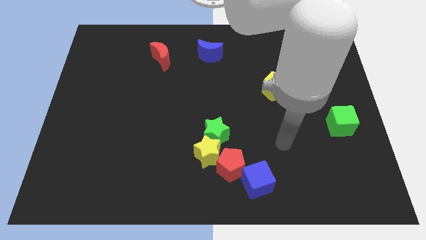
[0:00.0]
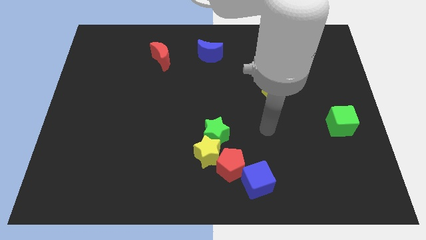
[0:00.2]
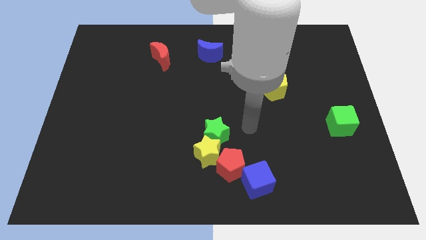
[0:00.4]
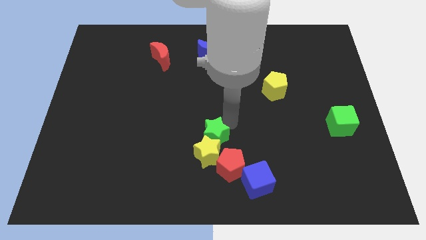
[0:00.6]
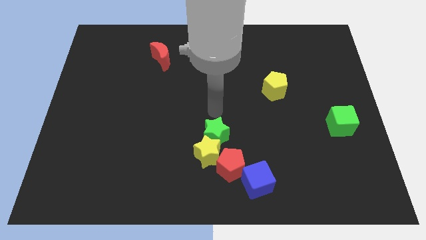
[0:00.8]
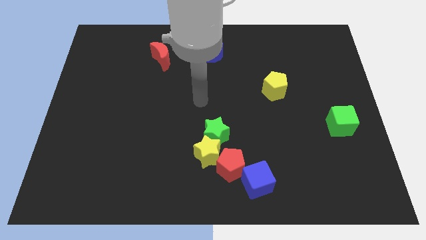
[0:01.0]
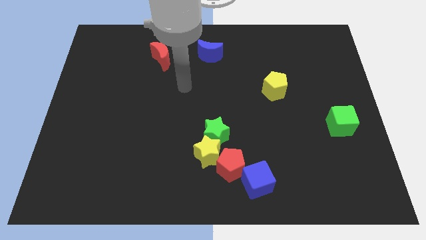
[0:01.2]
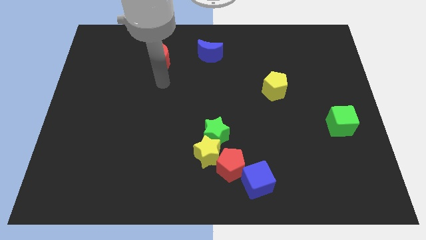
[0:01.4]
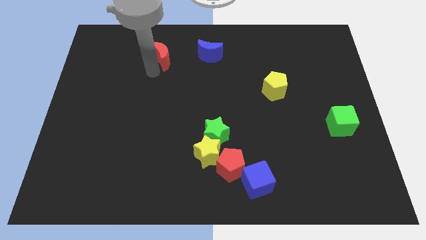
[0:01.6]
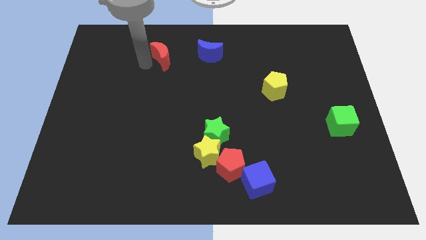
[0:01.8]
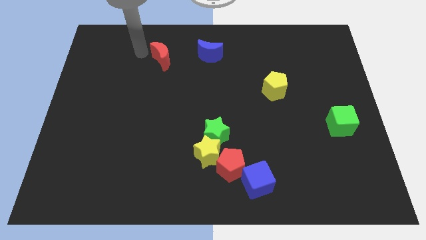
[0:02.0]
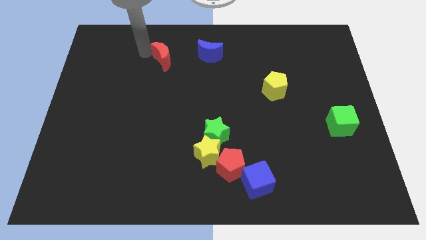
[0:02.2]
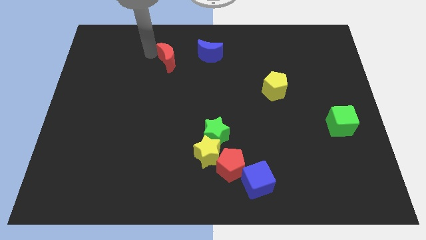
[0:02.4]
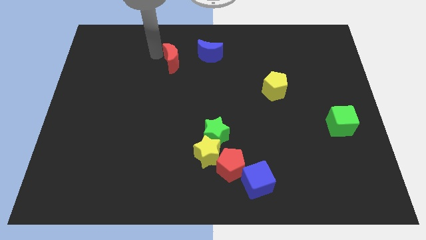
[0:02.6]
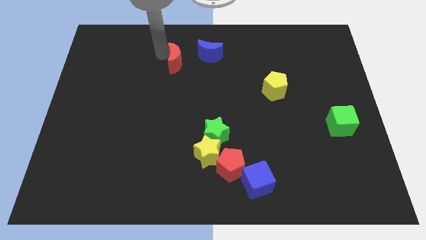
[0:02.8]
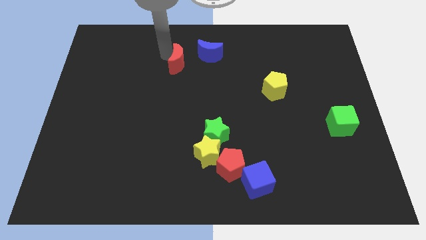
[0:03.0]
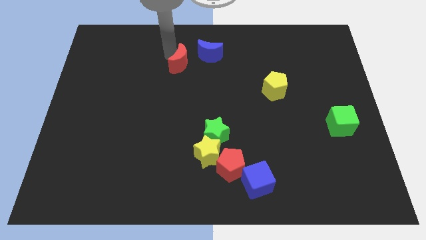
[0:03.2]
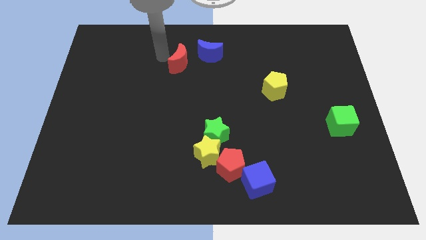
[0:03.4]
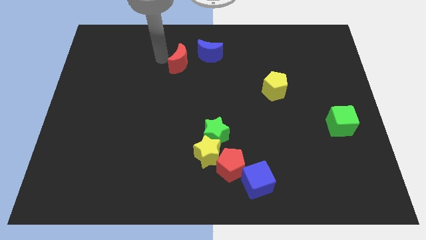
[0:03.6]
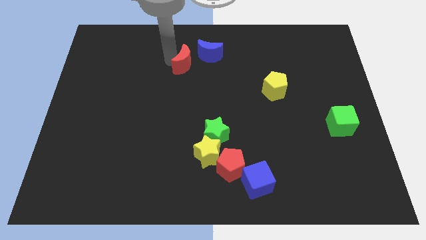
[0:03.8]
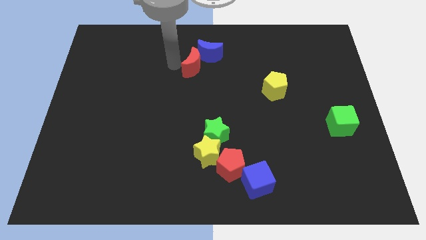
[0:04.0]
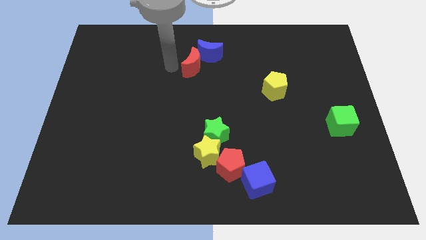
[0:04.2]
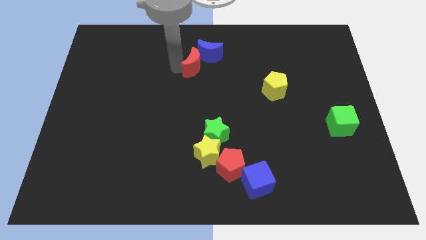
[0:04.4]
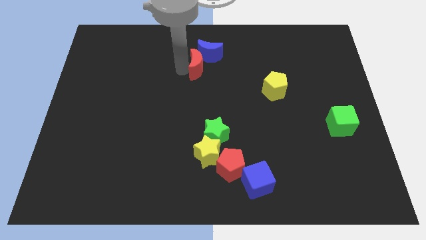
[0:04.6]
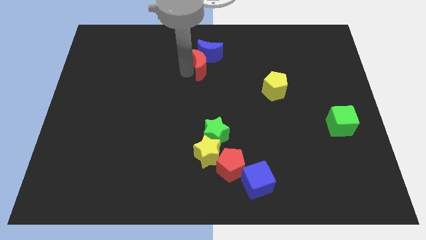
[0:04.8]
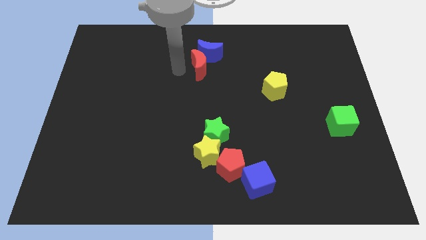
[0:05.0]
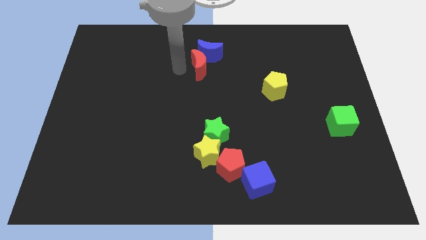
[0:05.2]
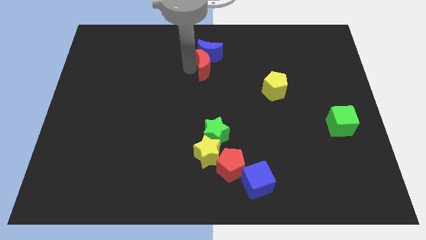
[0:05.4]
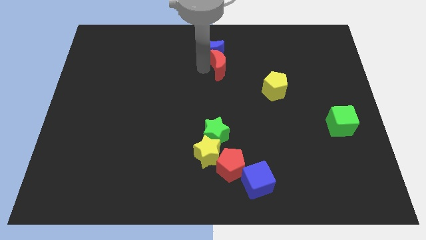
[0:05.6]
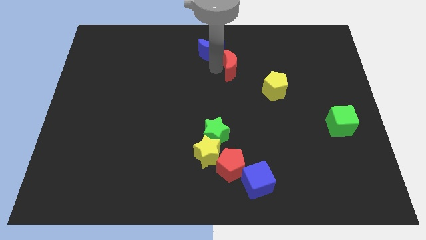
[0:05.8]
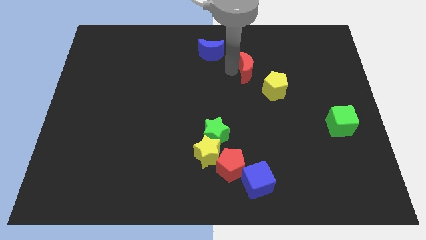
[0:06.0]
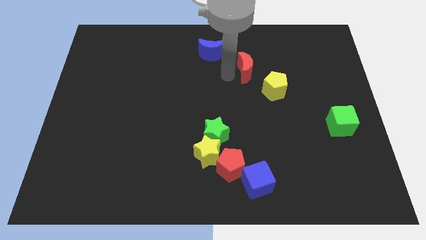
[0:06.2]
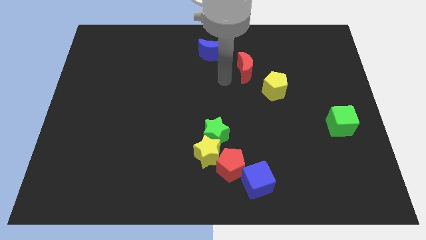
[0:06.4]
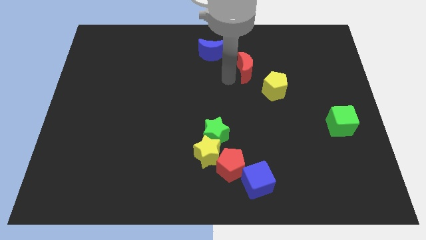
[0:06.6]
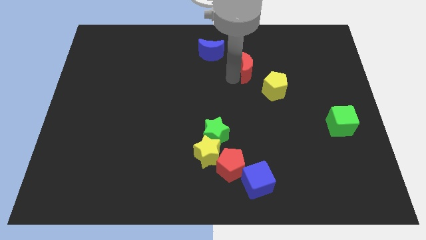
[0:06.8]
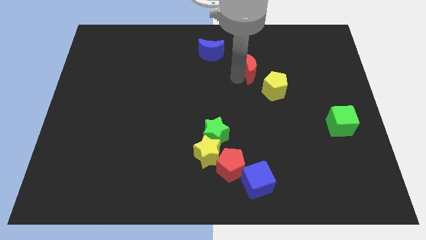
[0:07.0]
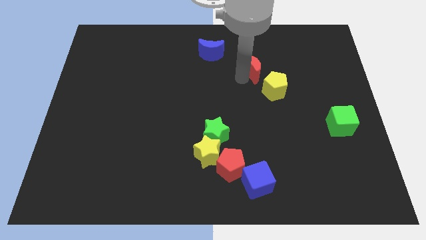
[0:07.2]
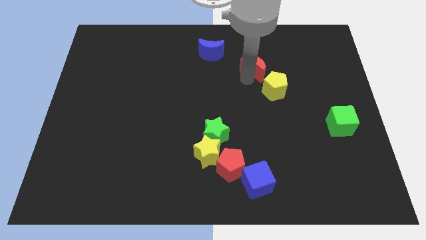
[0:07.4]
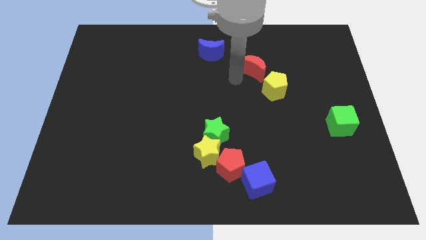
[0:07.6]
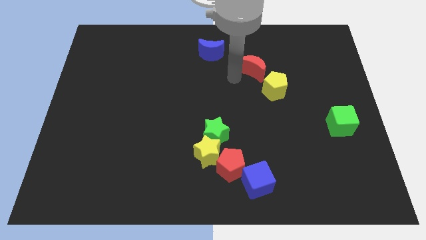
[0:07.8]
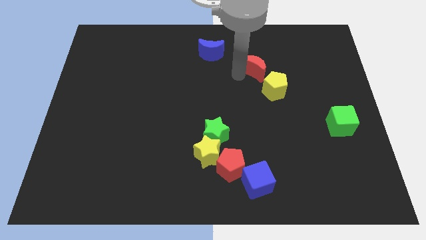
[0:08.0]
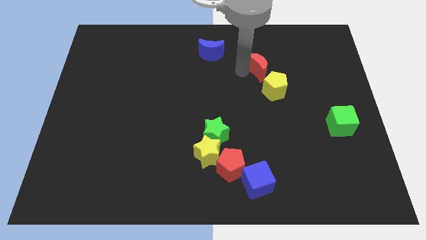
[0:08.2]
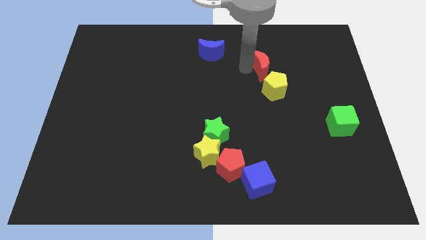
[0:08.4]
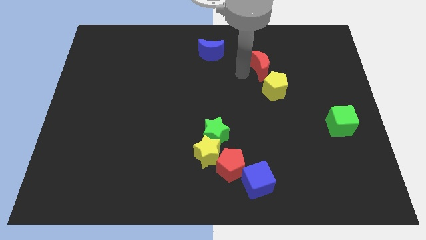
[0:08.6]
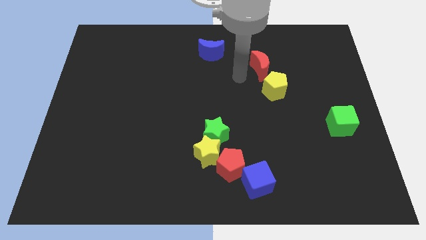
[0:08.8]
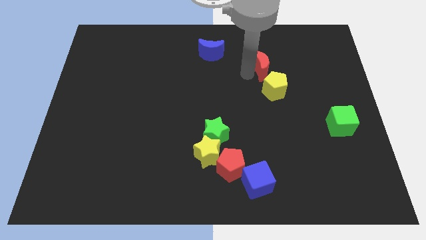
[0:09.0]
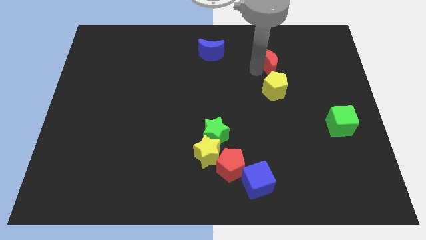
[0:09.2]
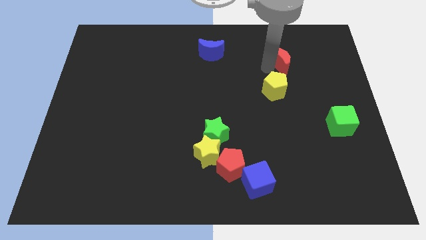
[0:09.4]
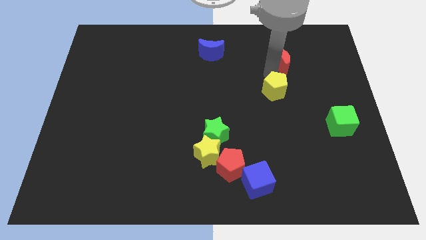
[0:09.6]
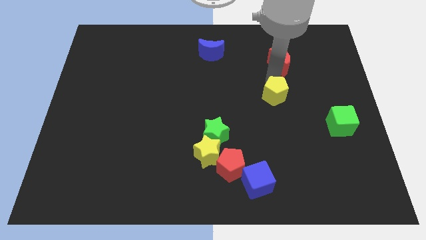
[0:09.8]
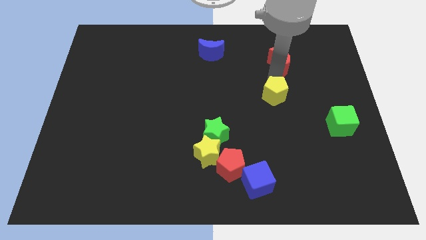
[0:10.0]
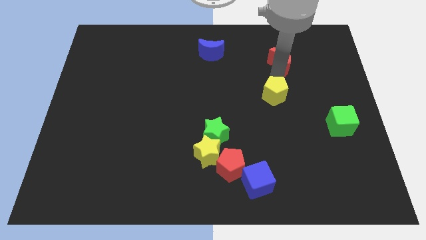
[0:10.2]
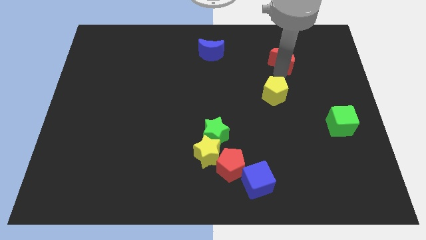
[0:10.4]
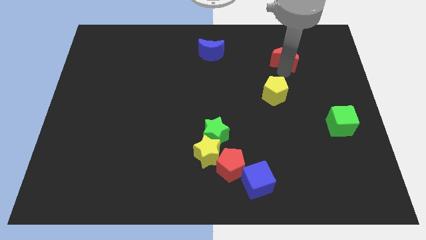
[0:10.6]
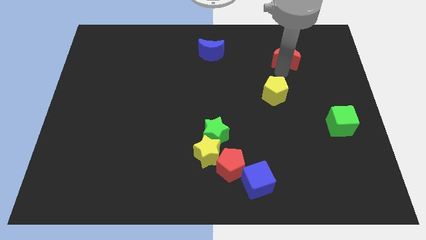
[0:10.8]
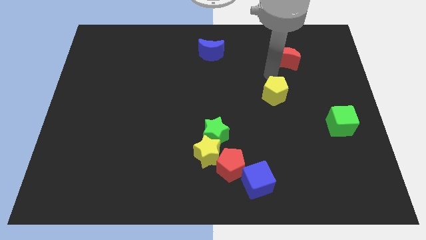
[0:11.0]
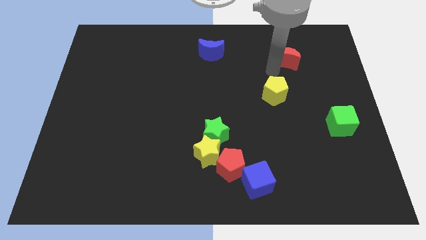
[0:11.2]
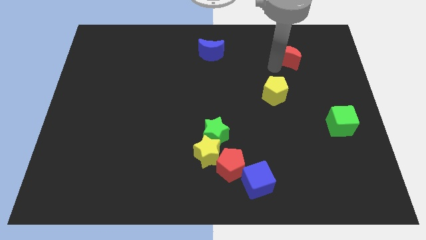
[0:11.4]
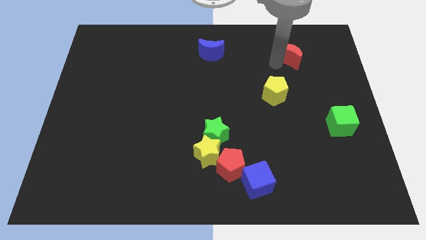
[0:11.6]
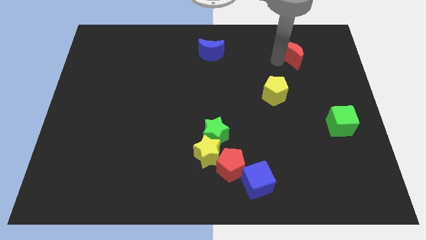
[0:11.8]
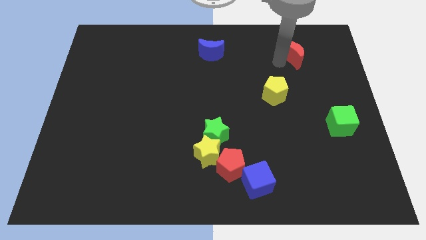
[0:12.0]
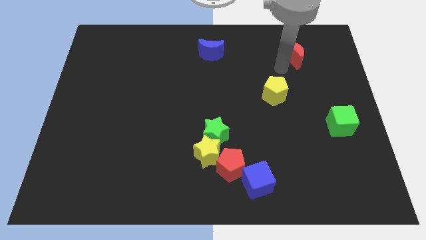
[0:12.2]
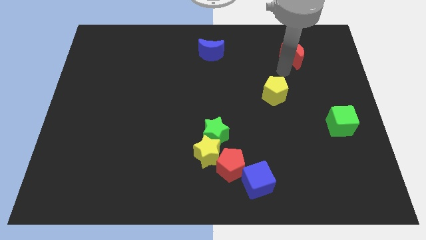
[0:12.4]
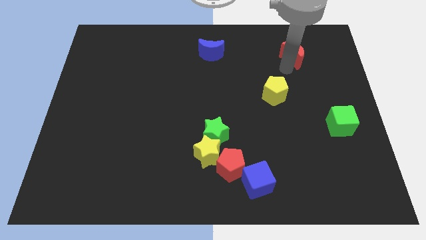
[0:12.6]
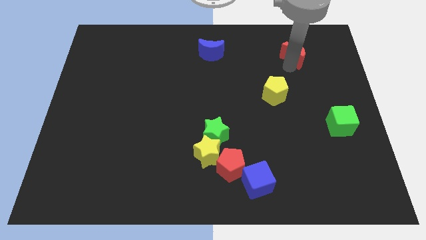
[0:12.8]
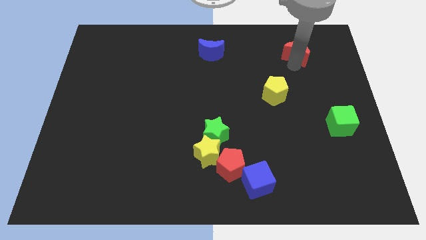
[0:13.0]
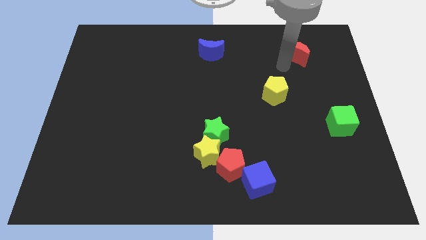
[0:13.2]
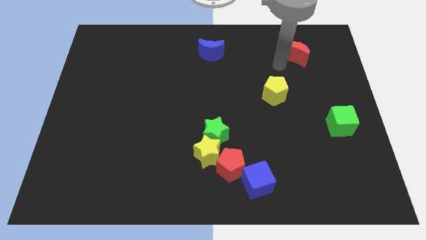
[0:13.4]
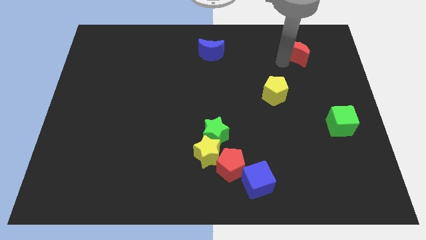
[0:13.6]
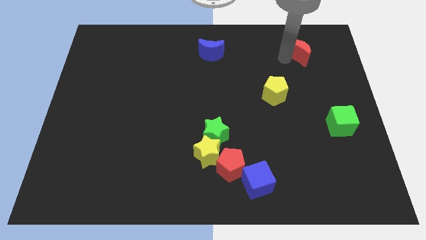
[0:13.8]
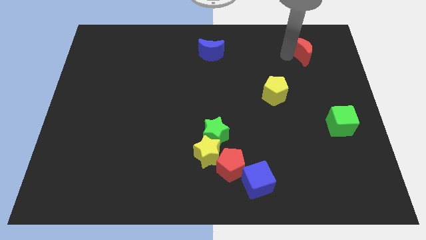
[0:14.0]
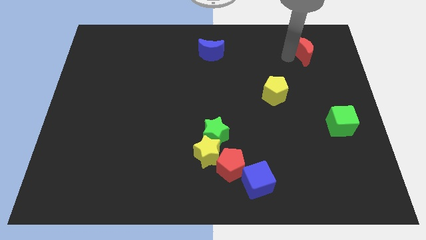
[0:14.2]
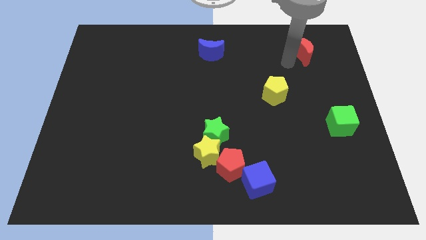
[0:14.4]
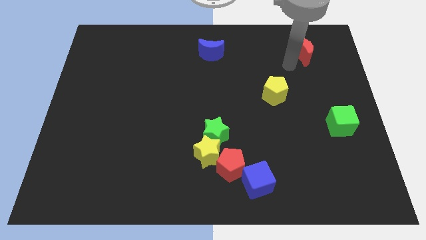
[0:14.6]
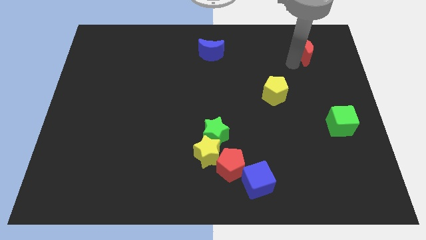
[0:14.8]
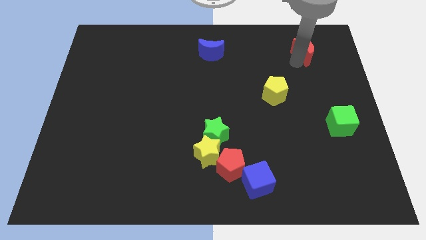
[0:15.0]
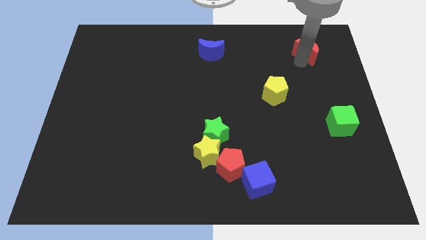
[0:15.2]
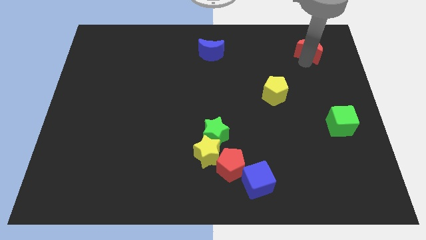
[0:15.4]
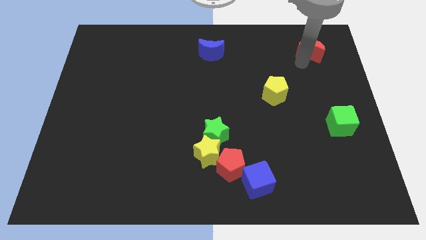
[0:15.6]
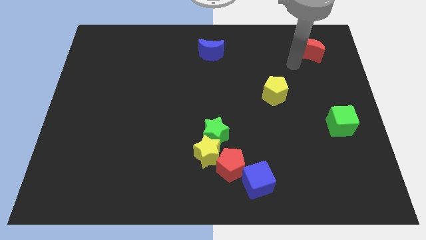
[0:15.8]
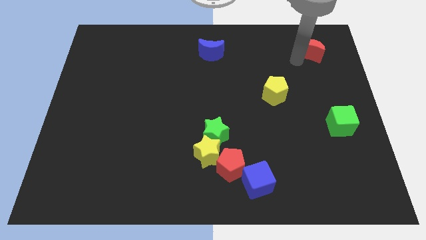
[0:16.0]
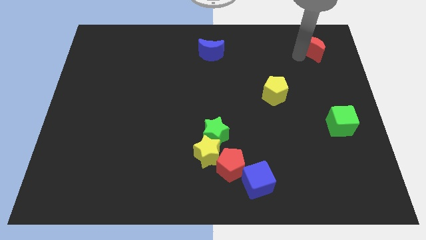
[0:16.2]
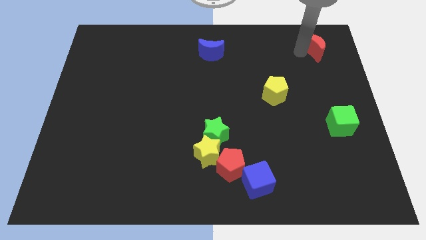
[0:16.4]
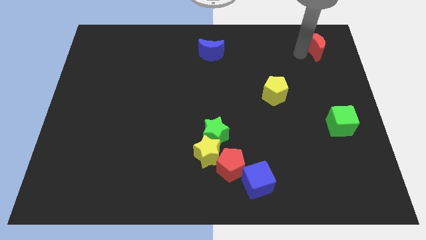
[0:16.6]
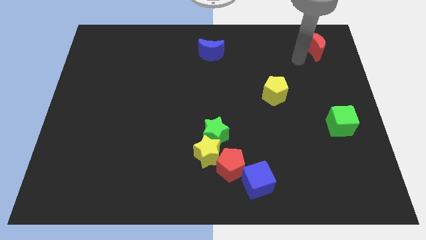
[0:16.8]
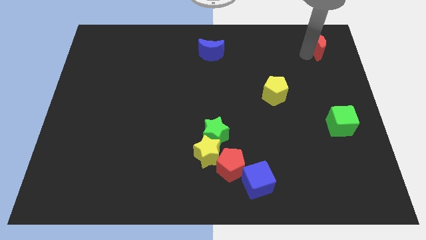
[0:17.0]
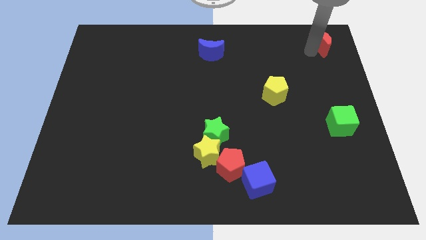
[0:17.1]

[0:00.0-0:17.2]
slide the red moon to the top right of the board
